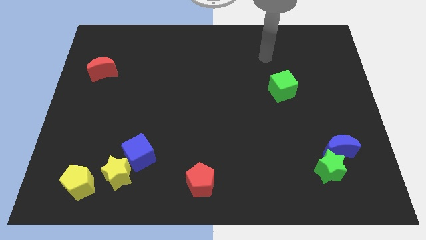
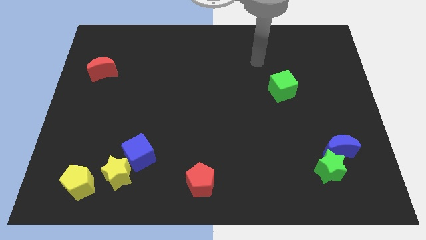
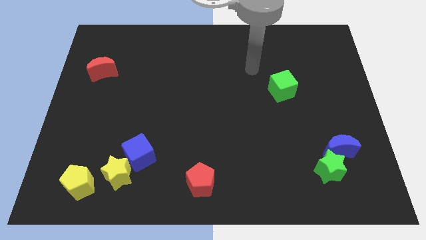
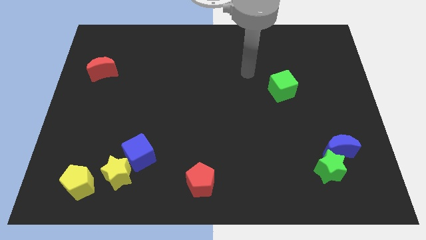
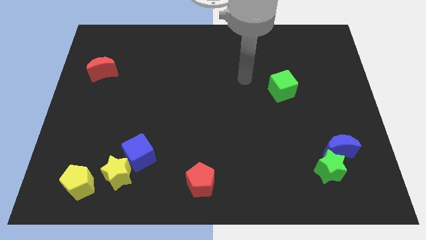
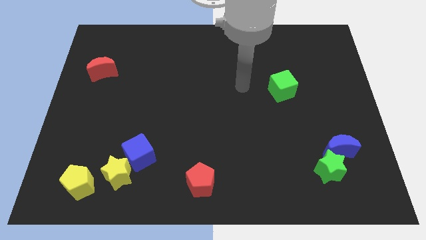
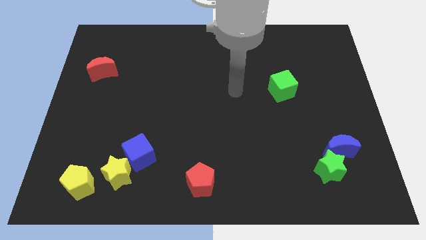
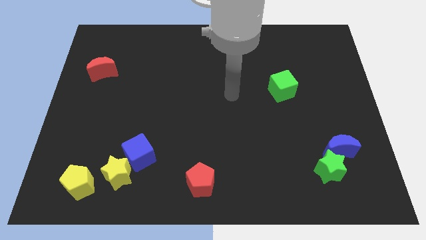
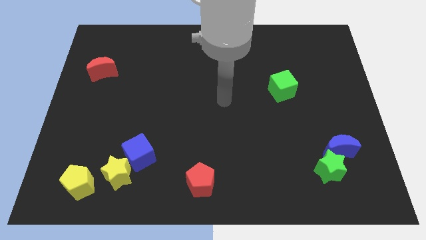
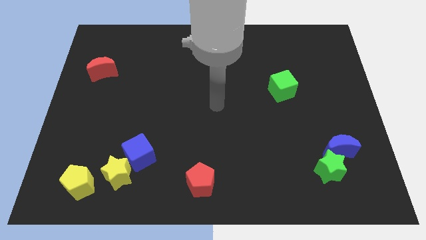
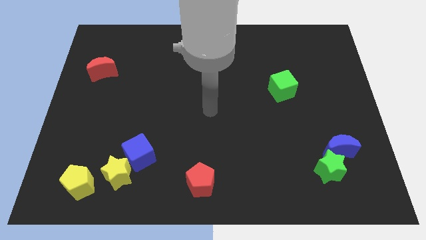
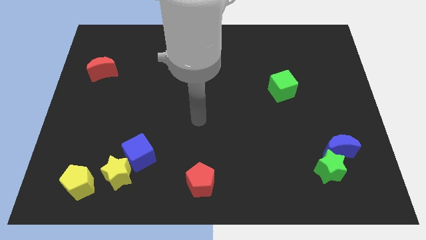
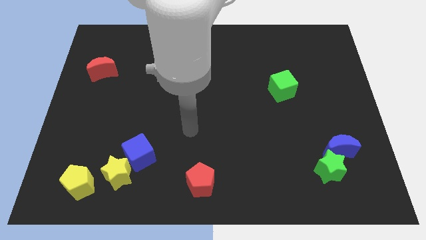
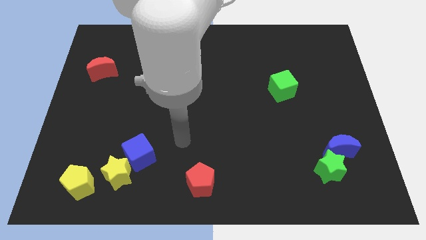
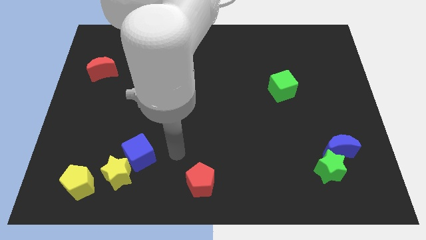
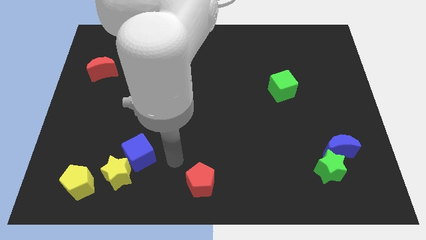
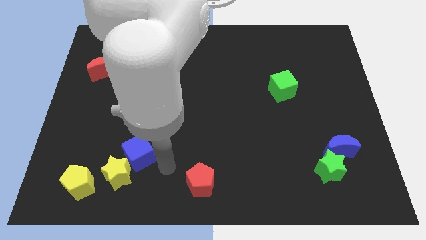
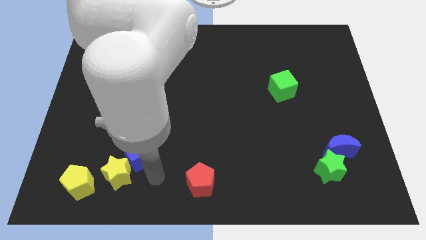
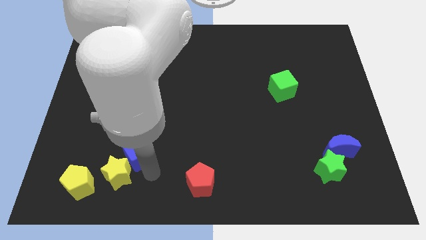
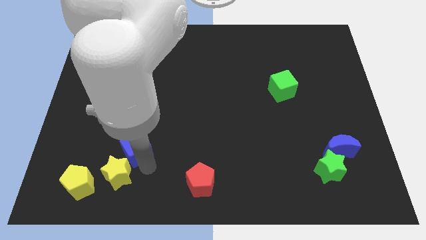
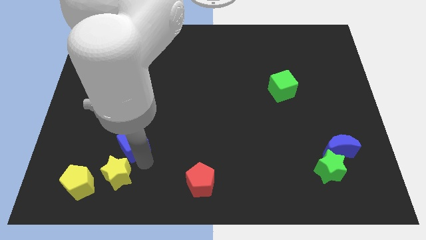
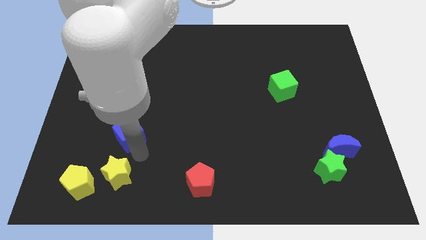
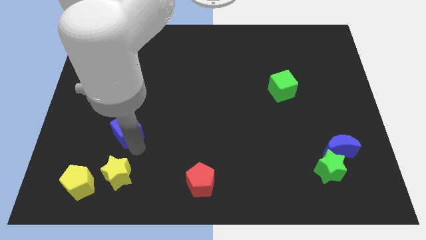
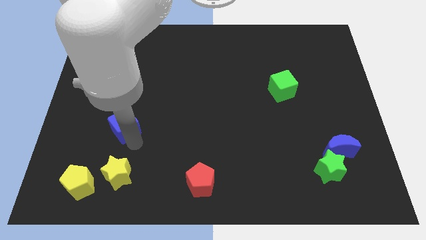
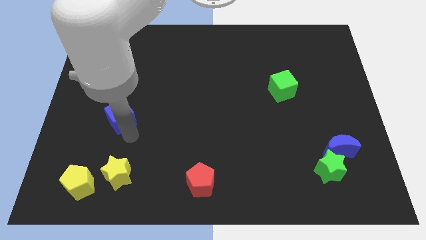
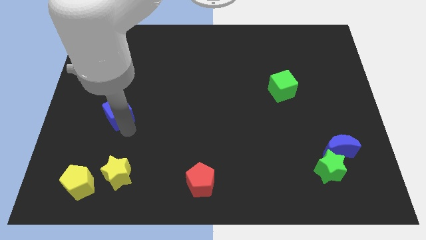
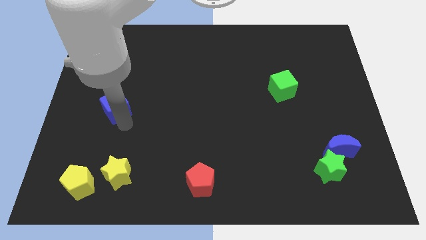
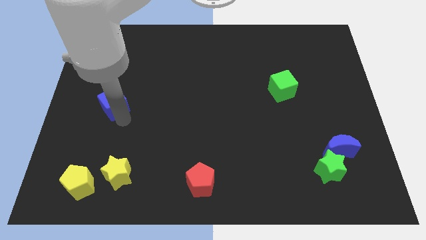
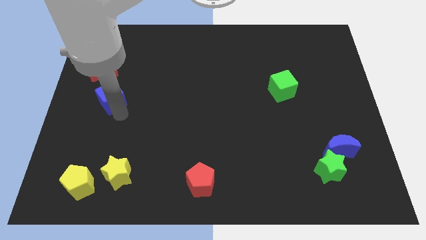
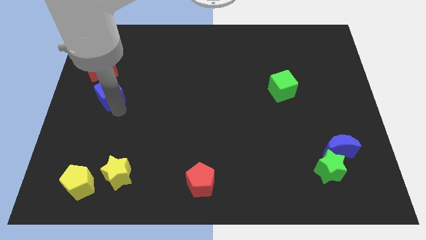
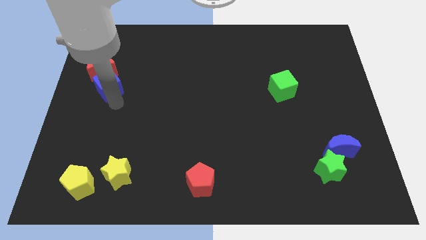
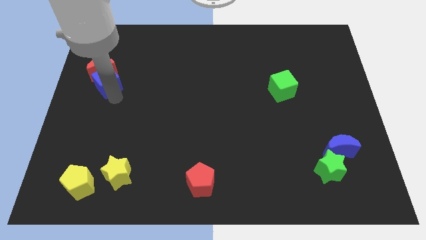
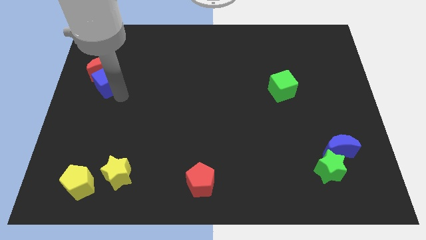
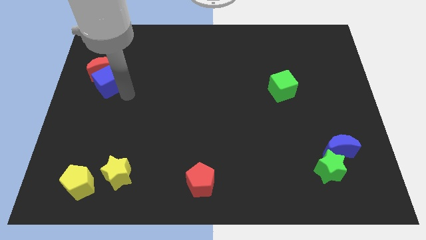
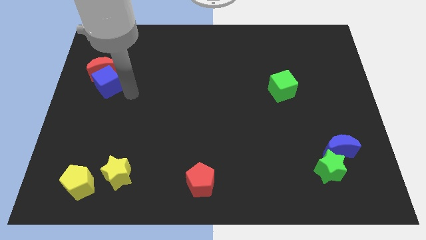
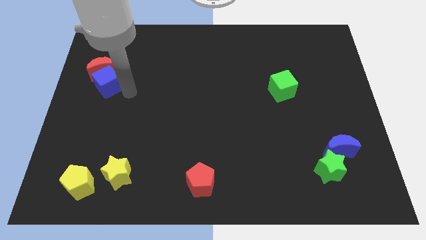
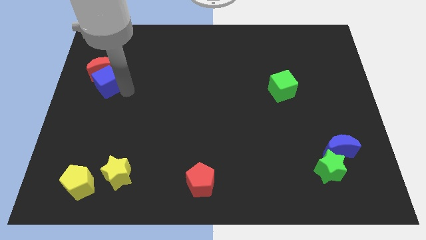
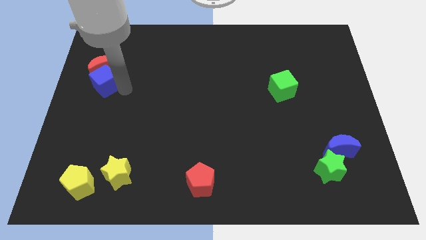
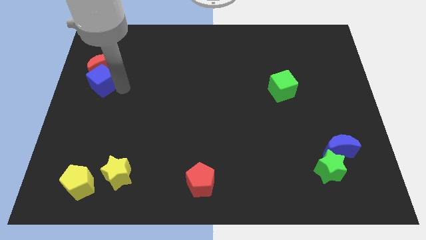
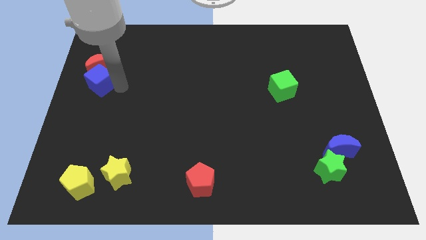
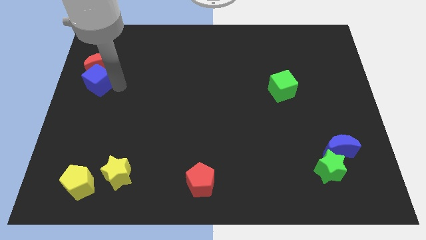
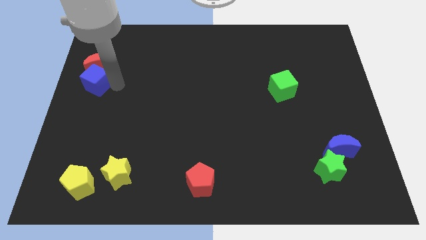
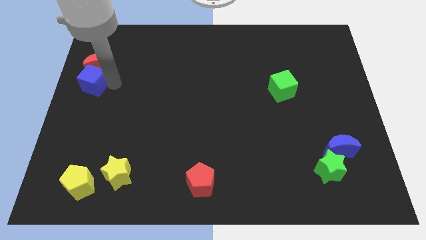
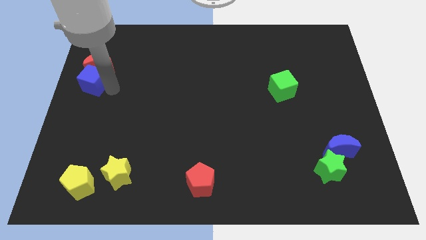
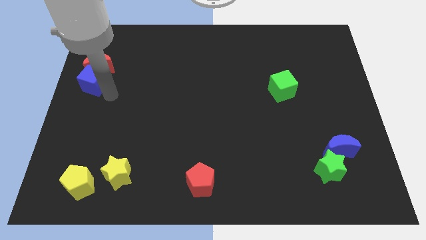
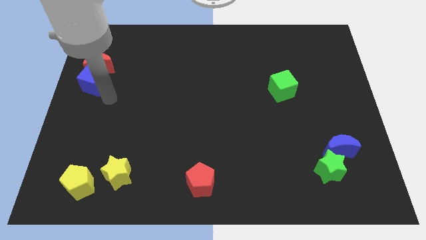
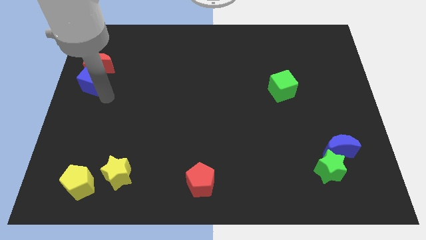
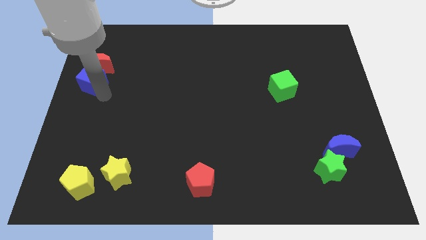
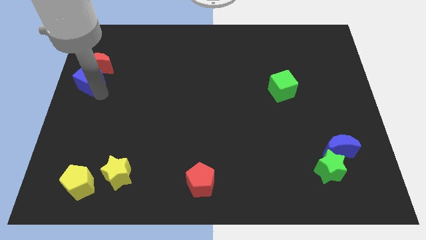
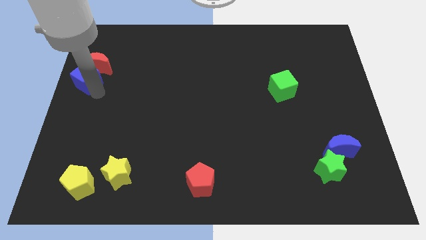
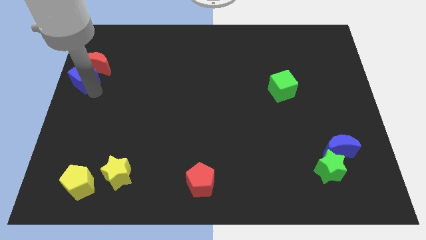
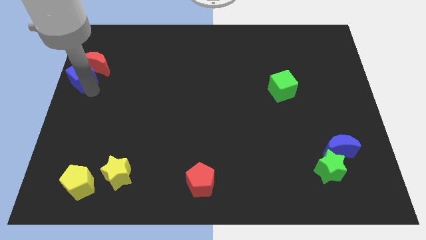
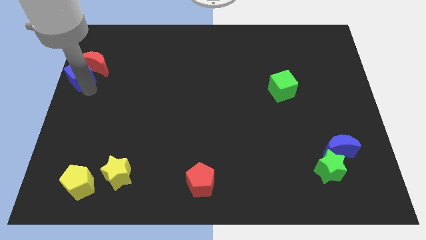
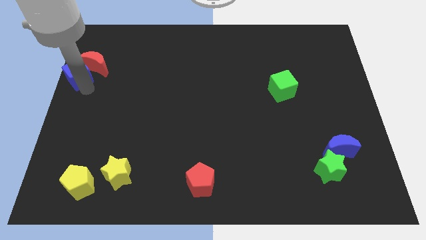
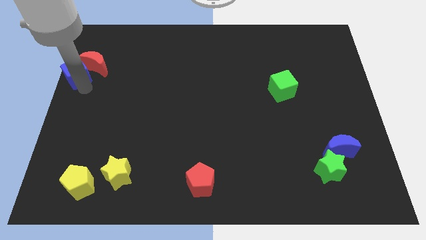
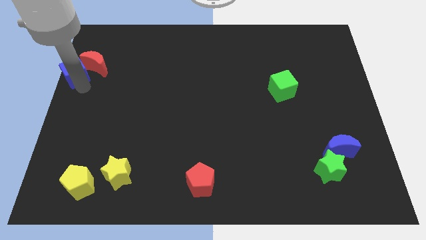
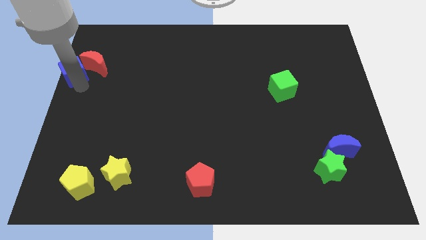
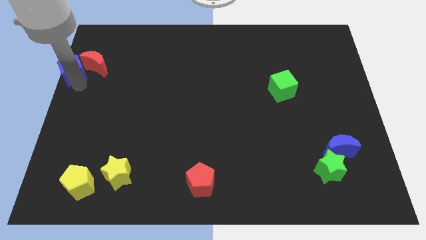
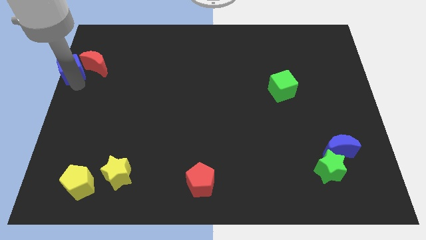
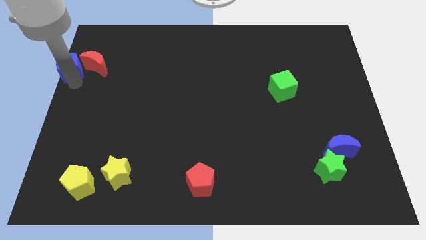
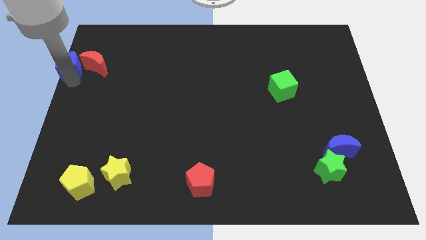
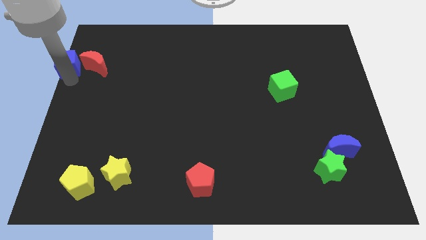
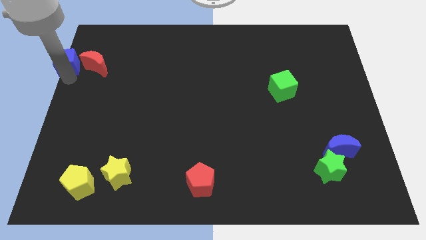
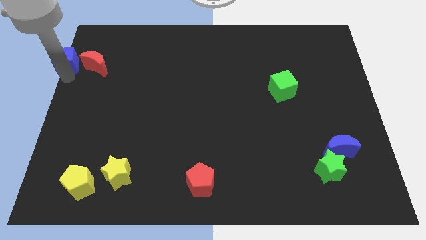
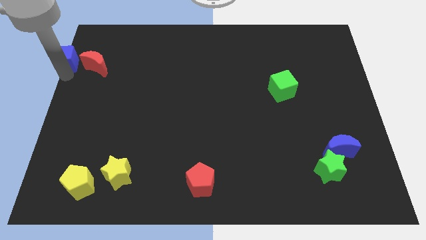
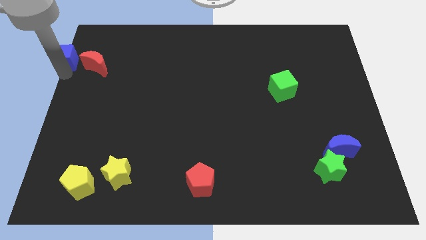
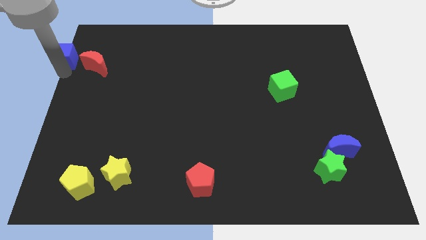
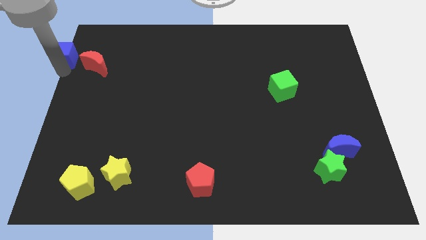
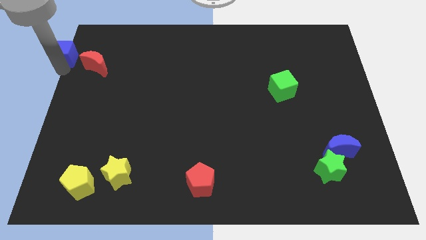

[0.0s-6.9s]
push the blue cube to the upper left corner

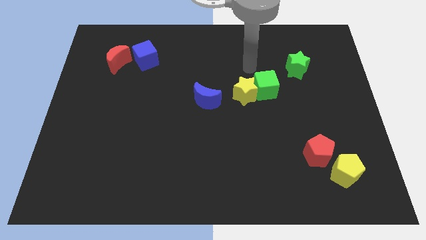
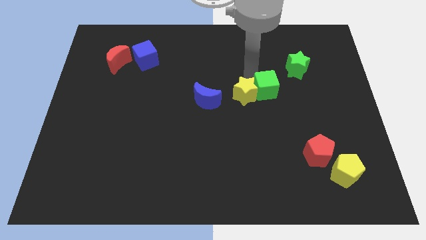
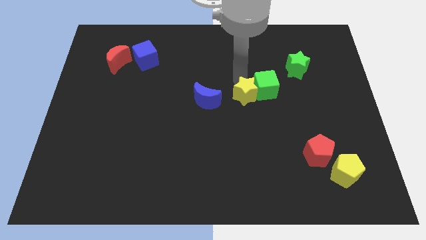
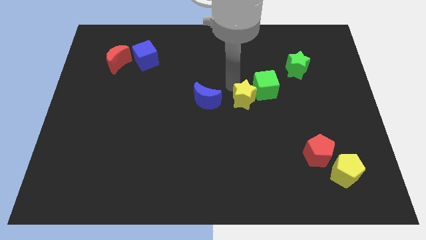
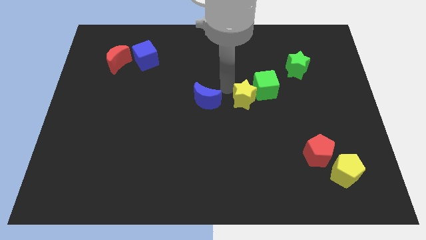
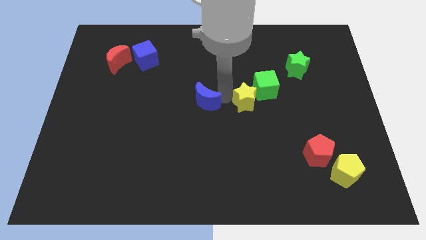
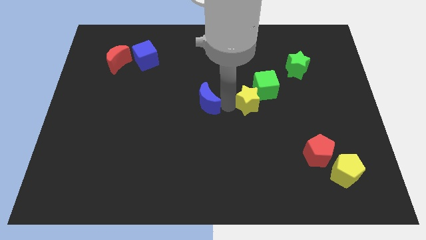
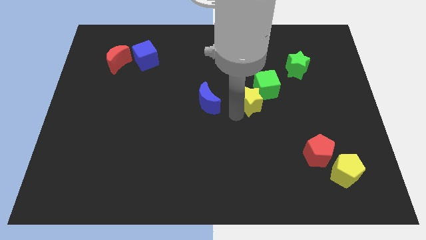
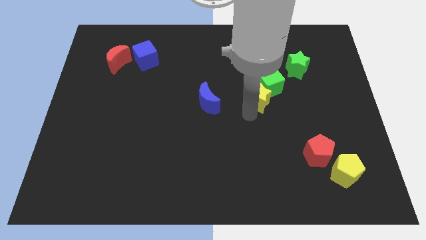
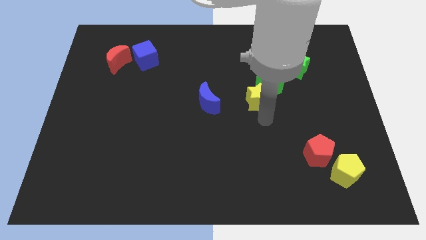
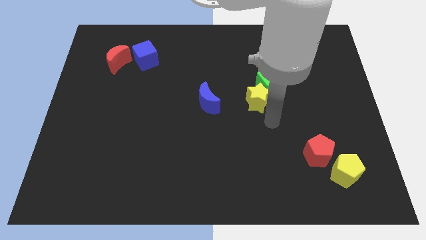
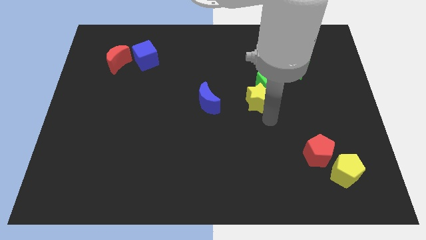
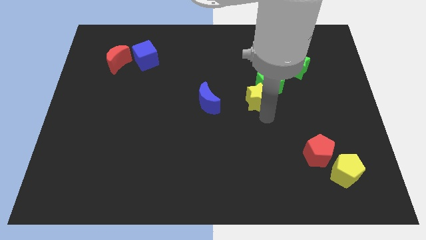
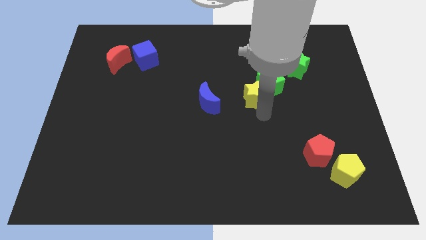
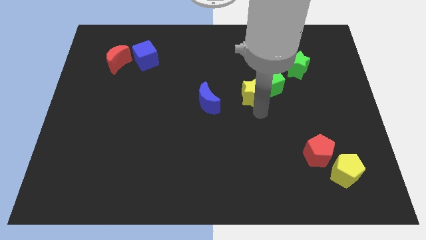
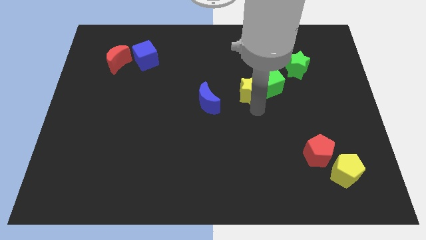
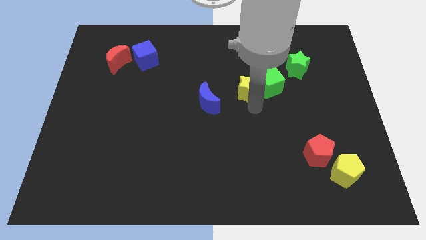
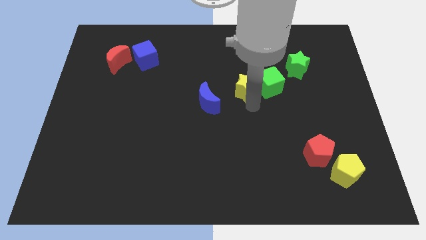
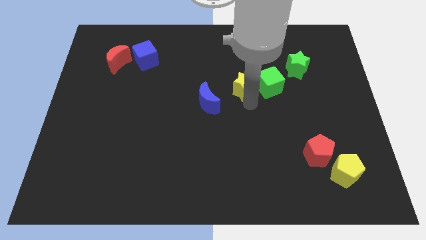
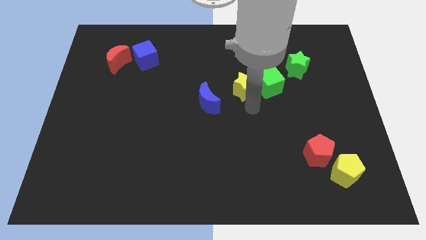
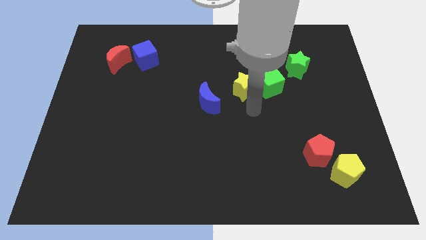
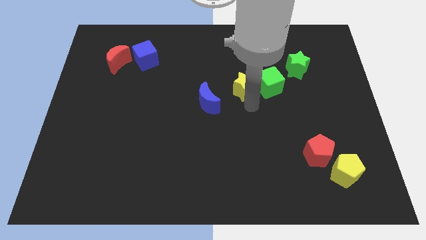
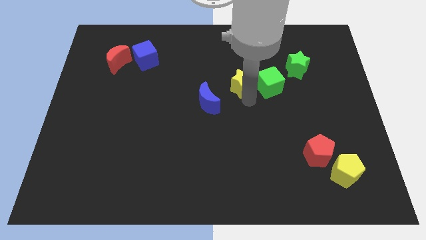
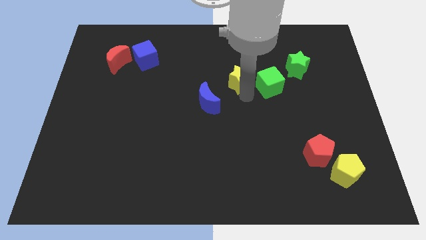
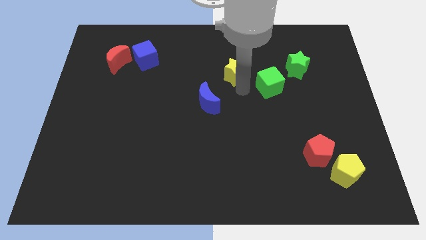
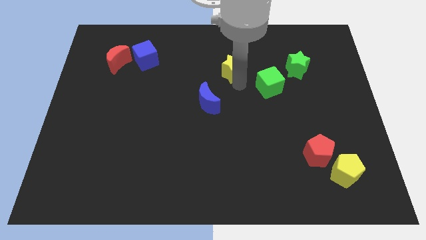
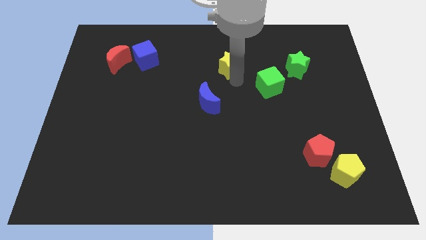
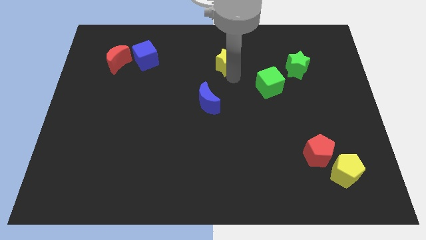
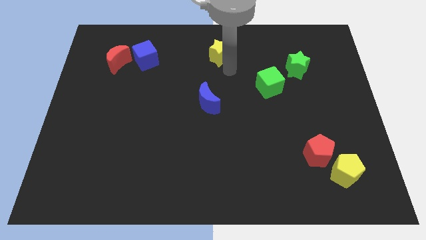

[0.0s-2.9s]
move the yellow star to the top side
